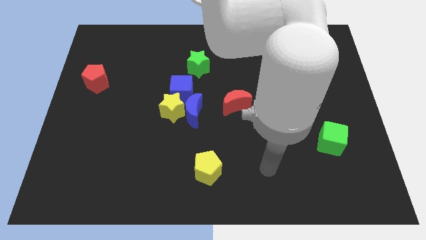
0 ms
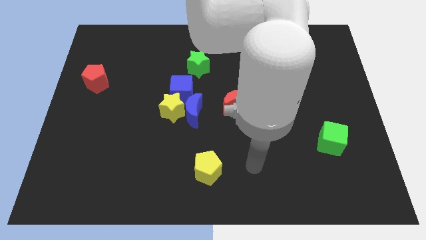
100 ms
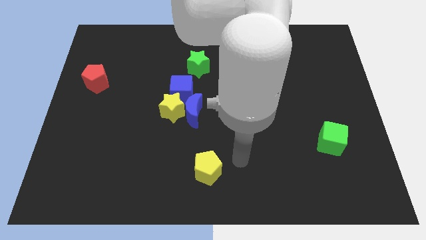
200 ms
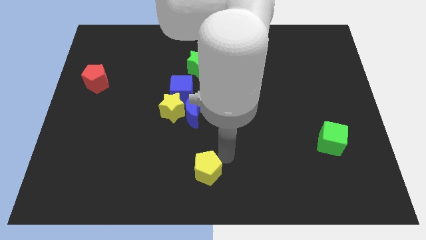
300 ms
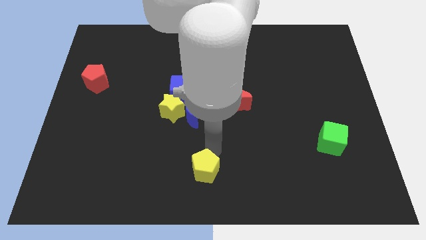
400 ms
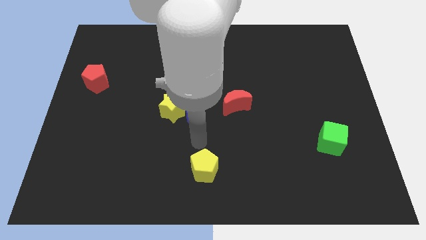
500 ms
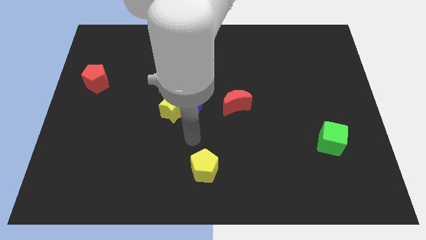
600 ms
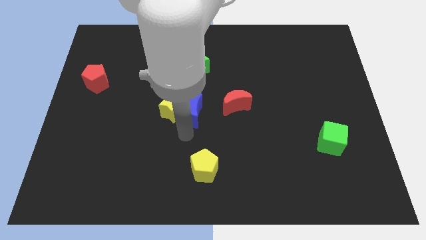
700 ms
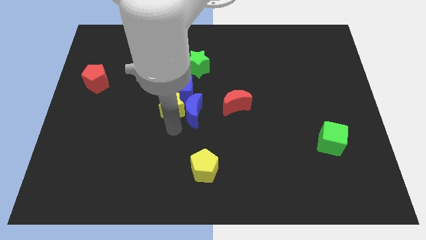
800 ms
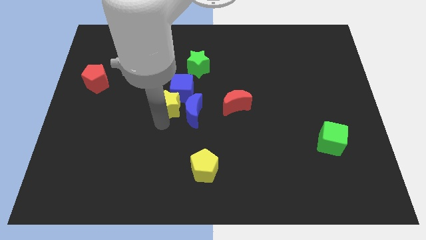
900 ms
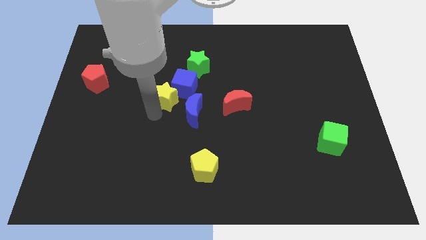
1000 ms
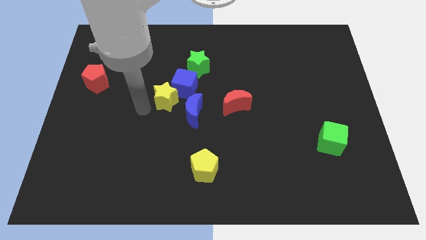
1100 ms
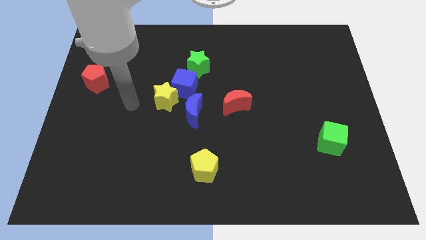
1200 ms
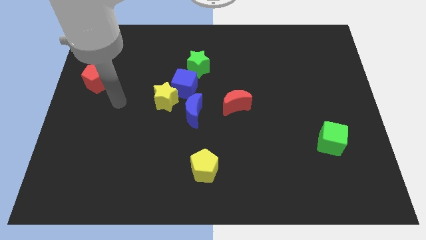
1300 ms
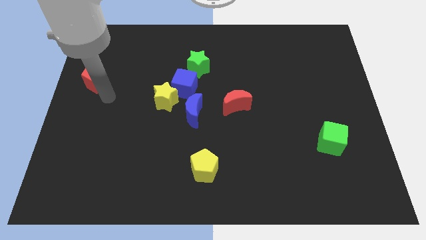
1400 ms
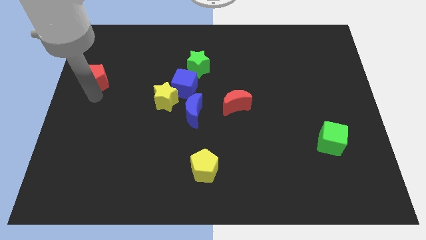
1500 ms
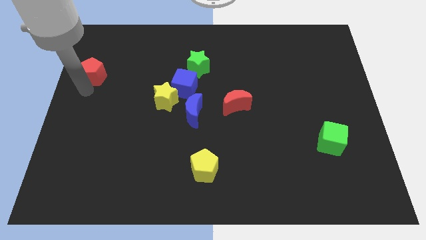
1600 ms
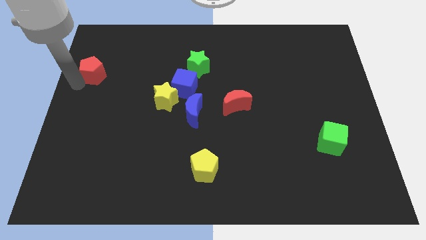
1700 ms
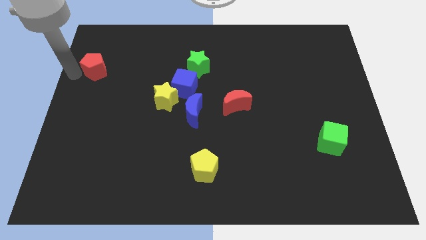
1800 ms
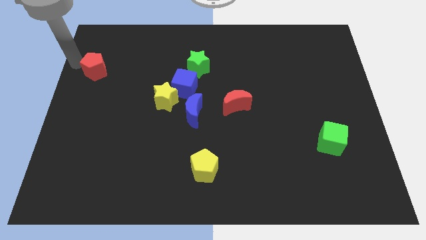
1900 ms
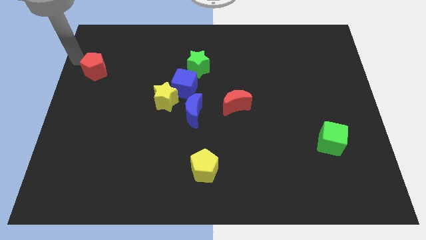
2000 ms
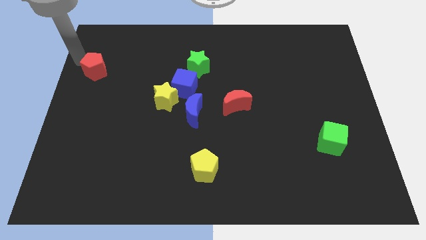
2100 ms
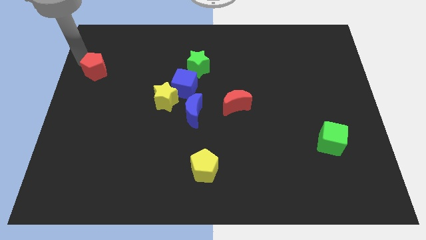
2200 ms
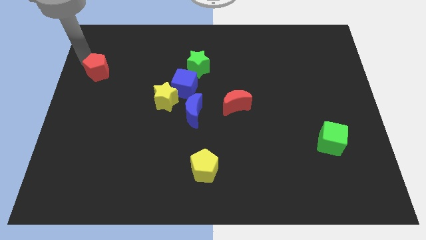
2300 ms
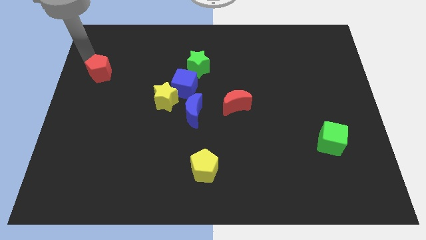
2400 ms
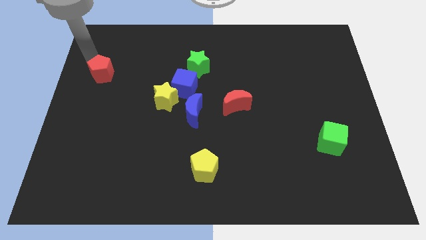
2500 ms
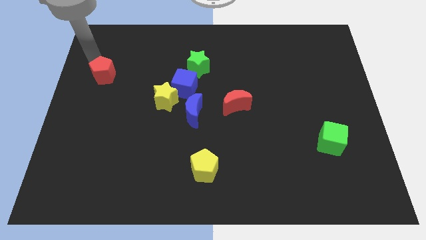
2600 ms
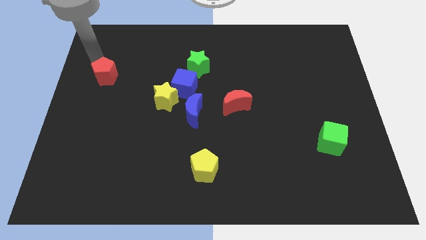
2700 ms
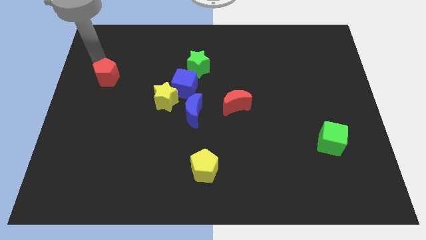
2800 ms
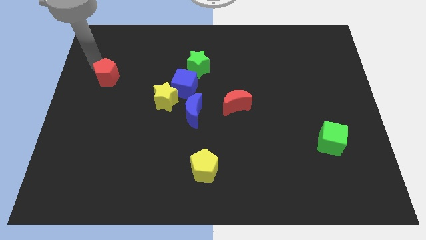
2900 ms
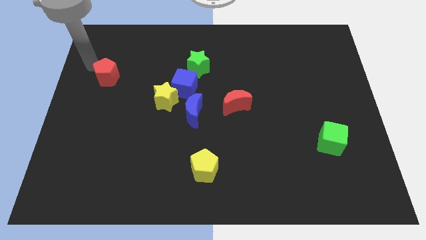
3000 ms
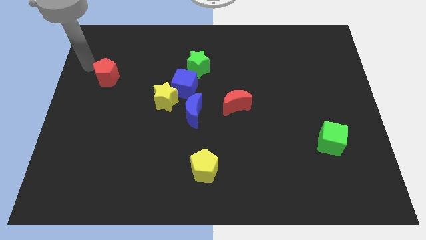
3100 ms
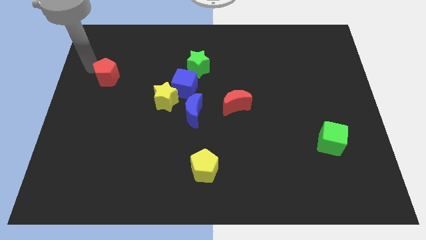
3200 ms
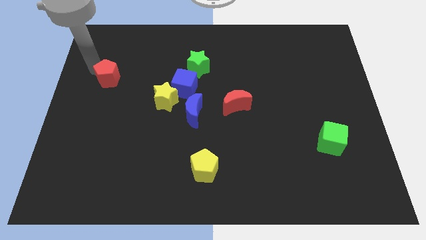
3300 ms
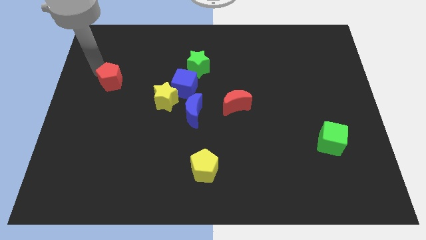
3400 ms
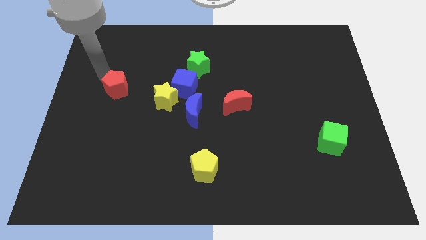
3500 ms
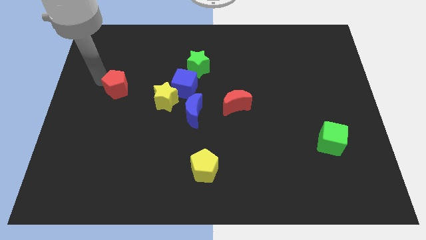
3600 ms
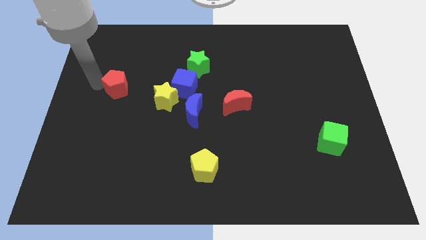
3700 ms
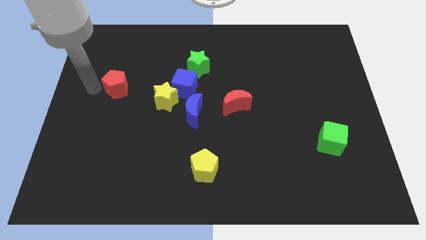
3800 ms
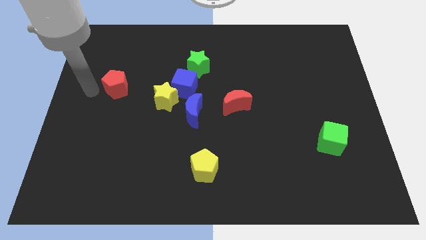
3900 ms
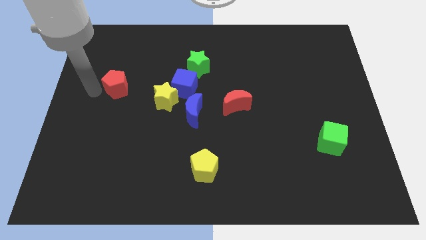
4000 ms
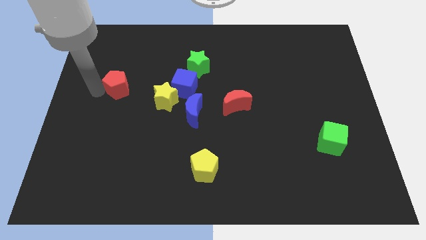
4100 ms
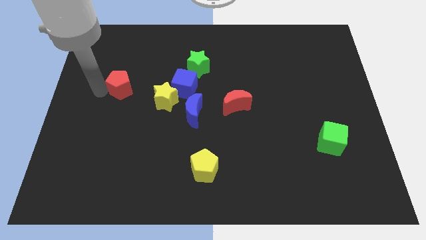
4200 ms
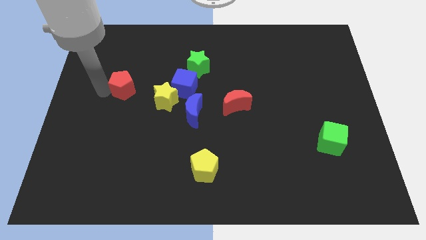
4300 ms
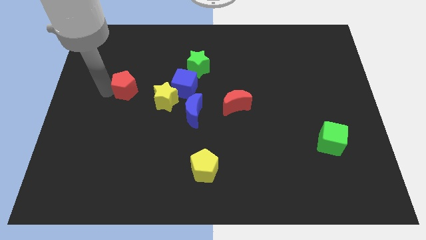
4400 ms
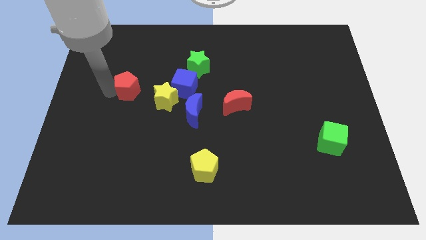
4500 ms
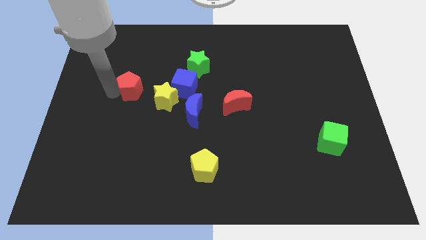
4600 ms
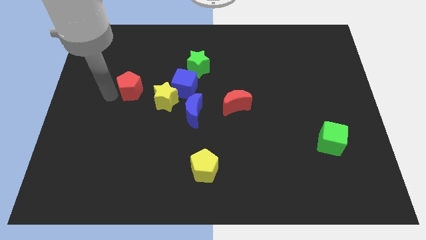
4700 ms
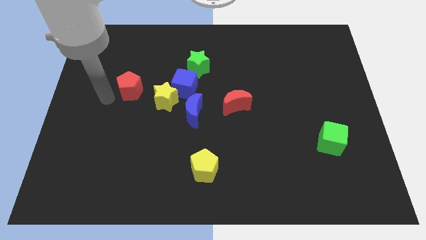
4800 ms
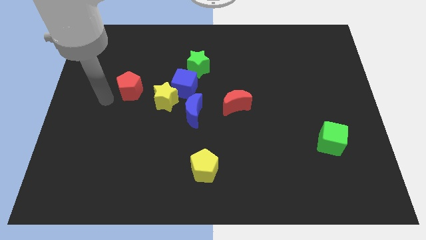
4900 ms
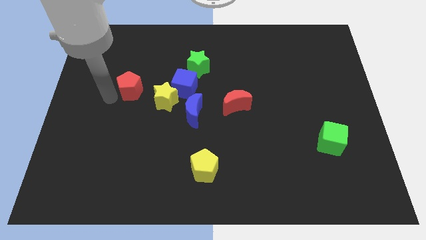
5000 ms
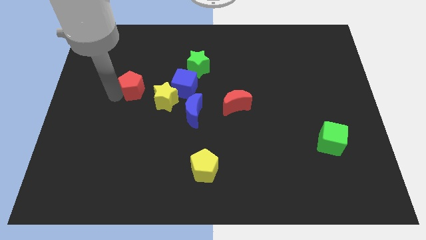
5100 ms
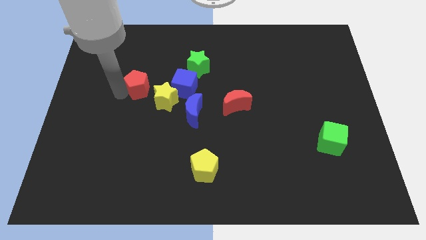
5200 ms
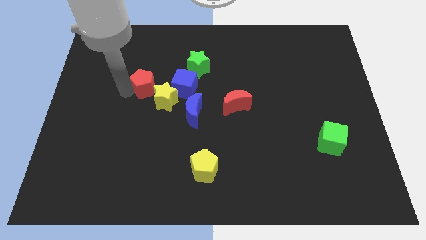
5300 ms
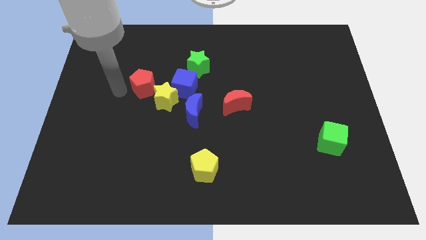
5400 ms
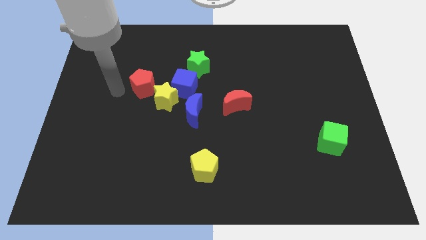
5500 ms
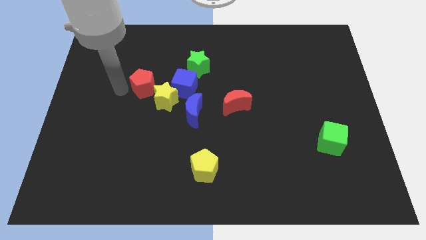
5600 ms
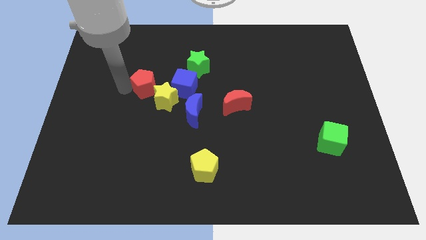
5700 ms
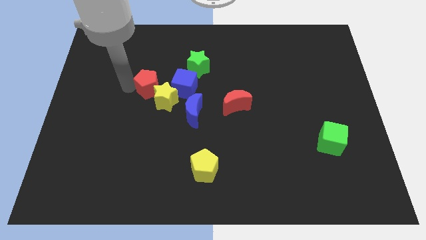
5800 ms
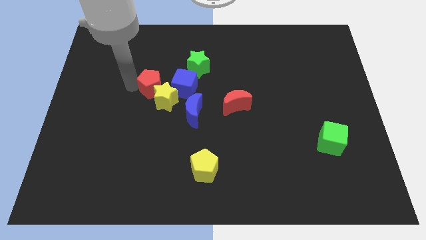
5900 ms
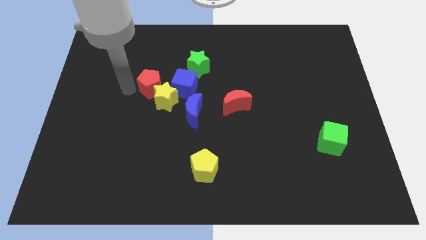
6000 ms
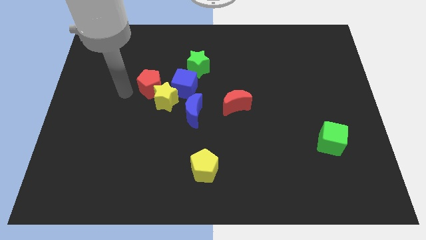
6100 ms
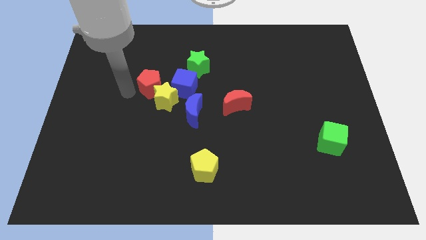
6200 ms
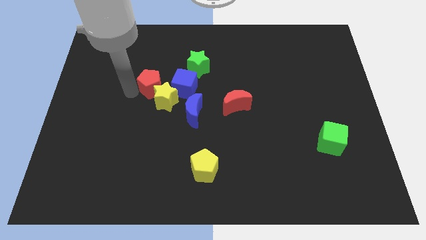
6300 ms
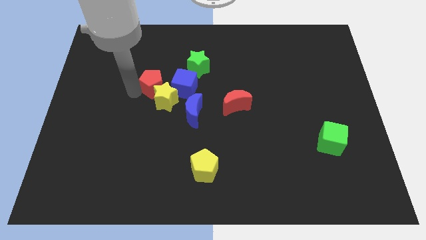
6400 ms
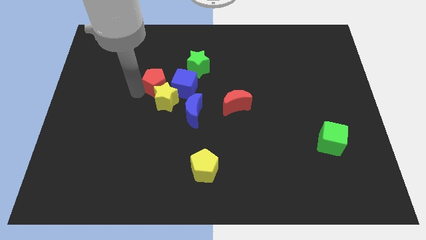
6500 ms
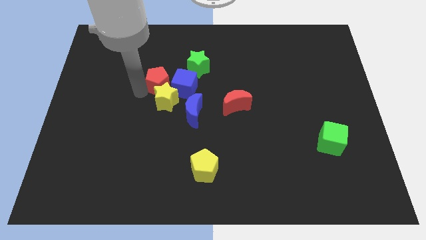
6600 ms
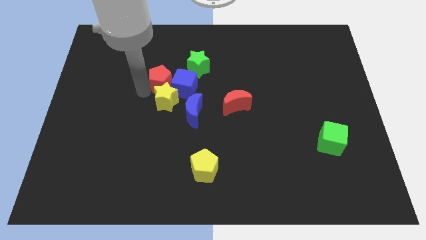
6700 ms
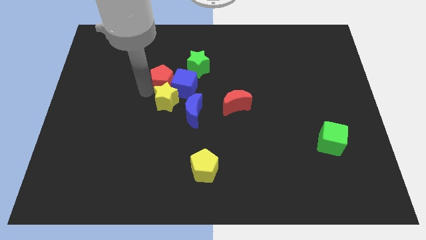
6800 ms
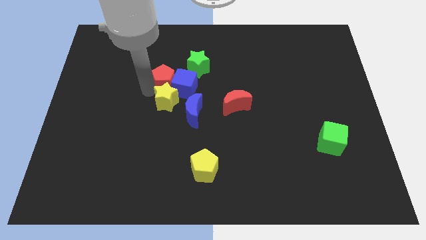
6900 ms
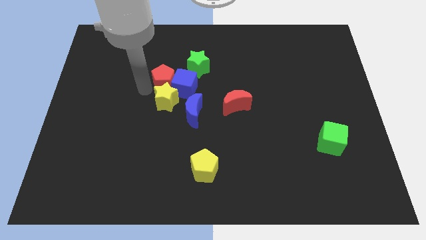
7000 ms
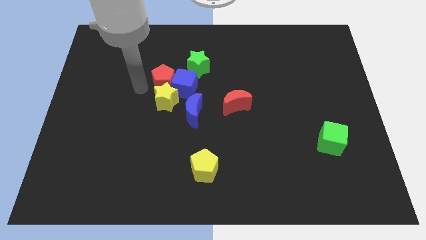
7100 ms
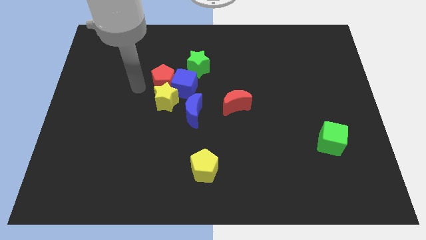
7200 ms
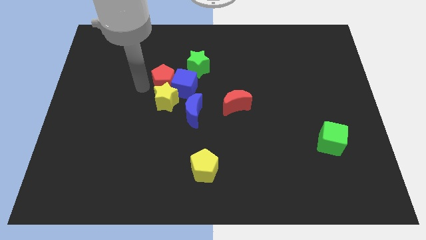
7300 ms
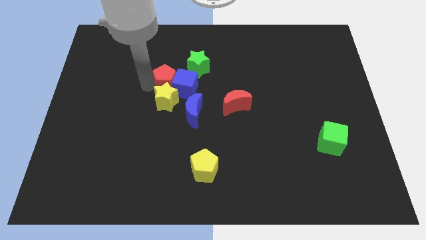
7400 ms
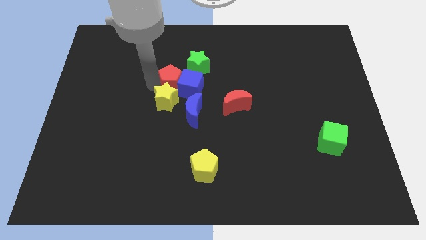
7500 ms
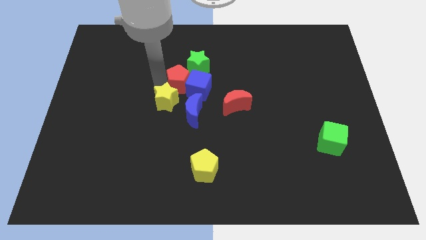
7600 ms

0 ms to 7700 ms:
slide the red pentagon above the blue moon
